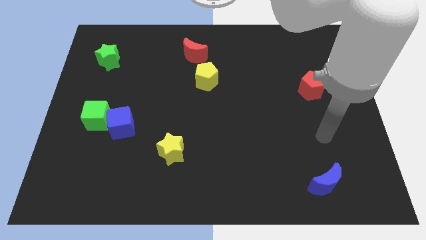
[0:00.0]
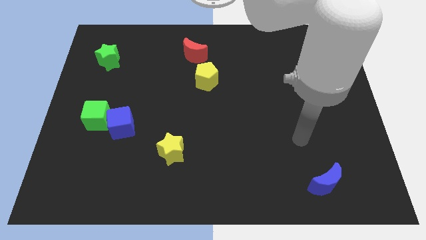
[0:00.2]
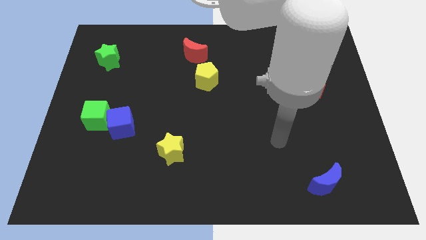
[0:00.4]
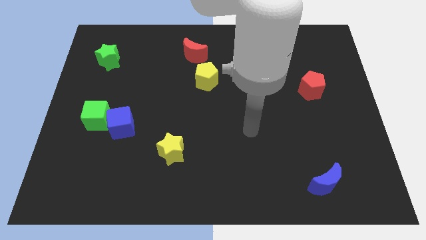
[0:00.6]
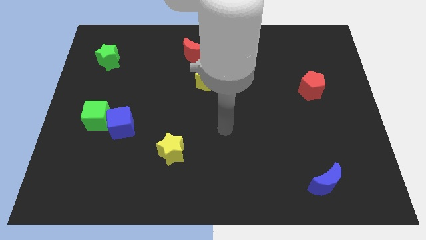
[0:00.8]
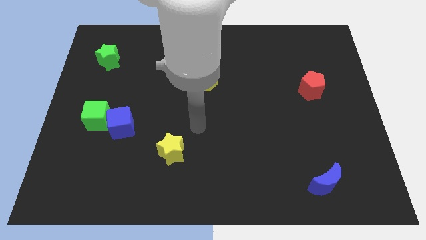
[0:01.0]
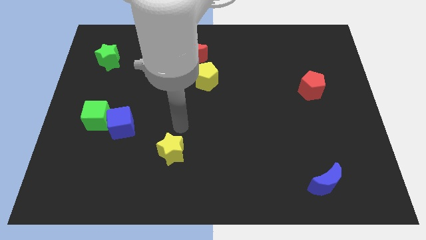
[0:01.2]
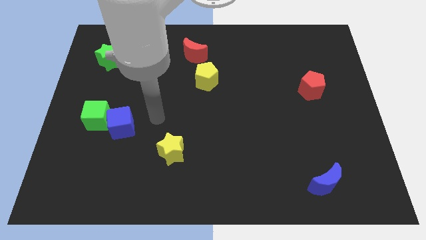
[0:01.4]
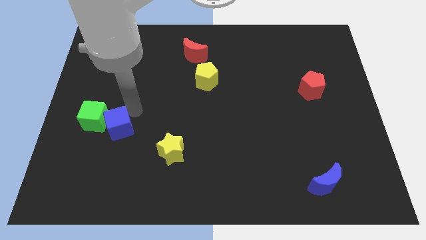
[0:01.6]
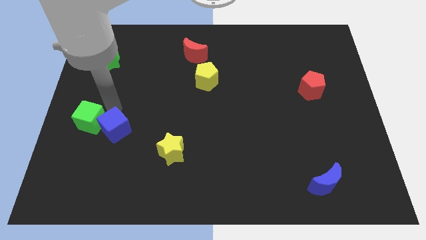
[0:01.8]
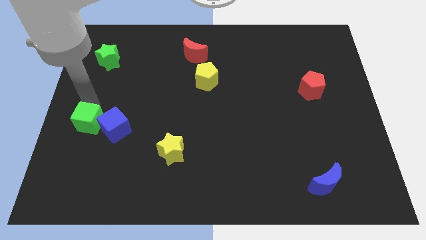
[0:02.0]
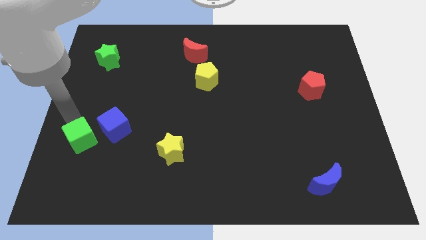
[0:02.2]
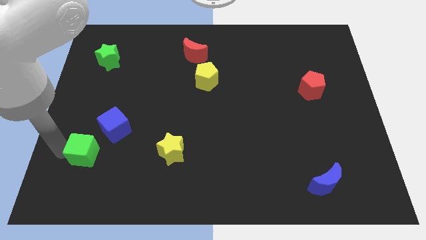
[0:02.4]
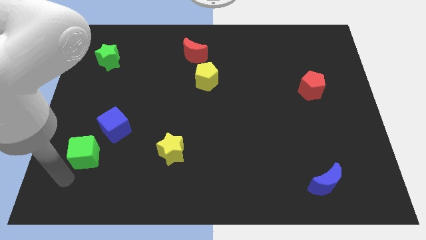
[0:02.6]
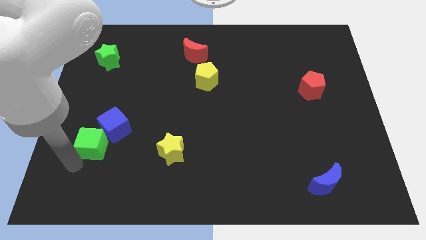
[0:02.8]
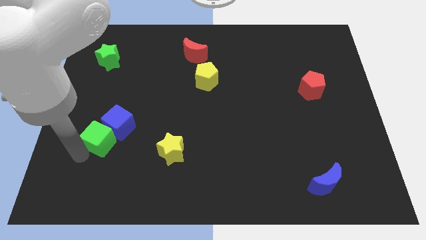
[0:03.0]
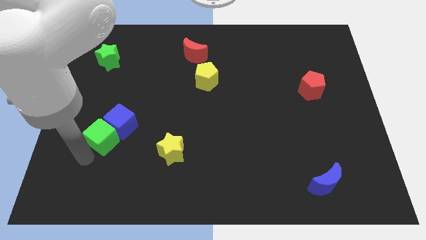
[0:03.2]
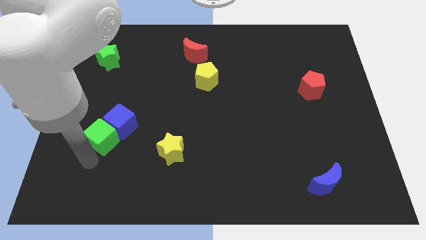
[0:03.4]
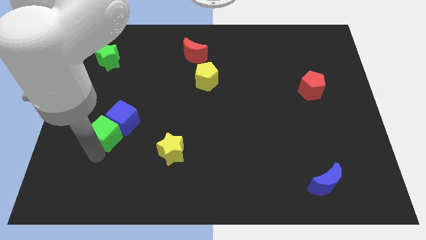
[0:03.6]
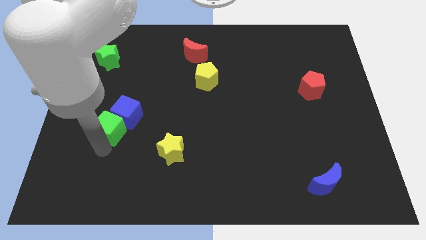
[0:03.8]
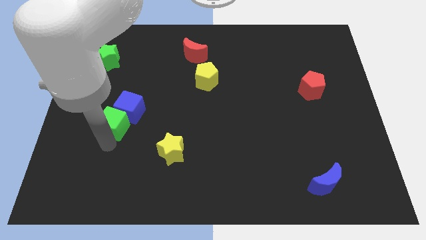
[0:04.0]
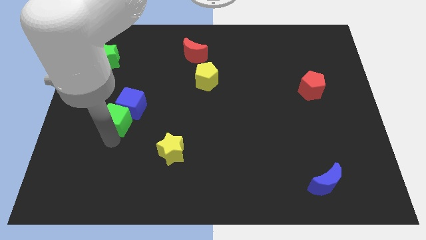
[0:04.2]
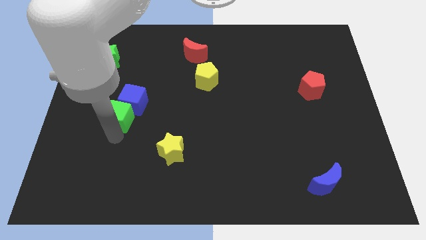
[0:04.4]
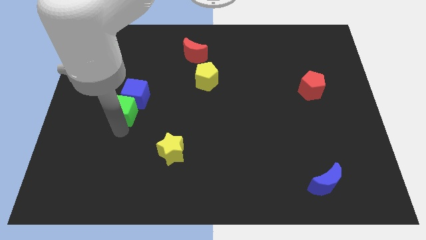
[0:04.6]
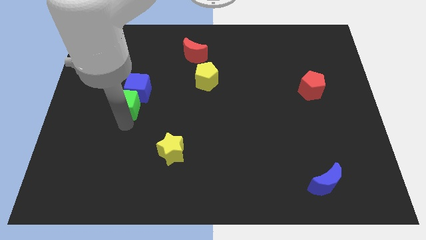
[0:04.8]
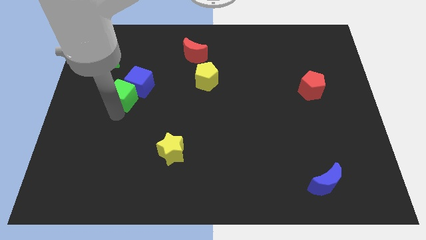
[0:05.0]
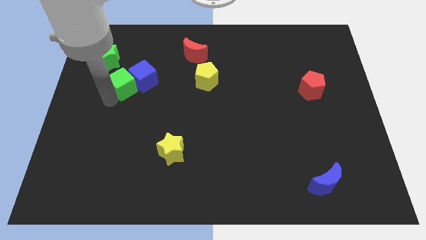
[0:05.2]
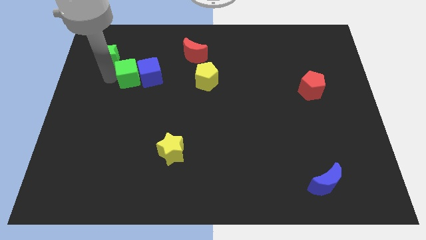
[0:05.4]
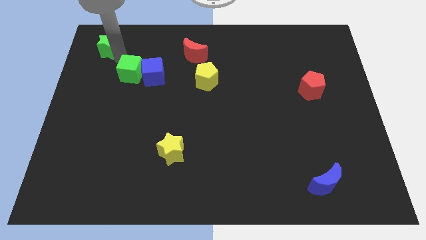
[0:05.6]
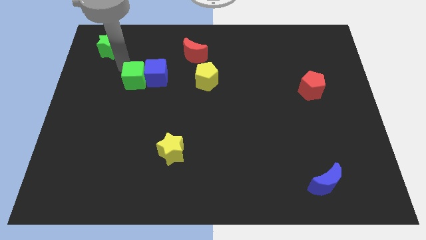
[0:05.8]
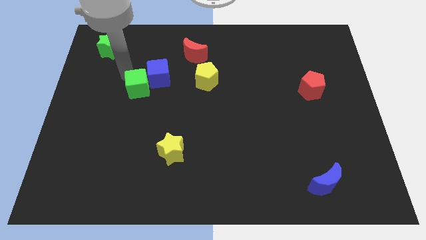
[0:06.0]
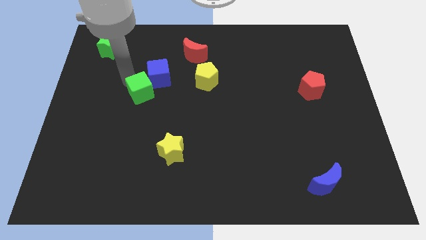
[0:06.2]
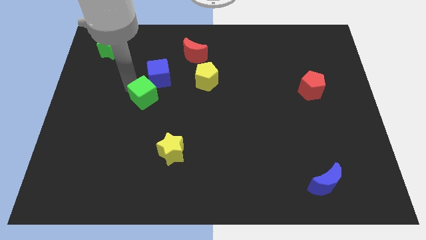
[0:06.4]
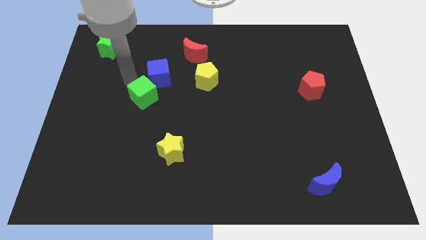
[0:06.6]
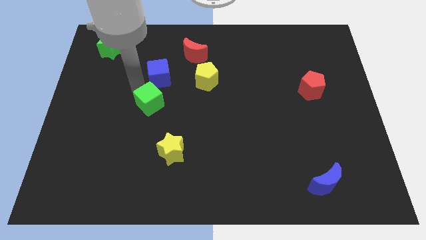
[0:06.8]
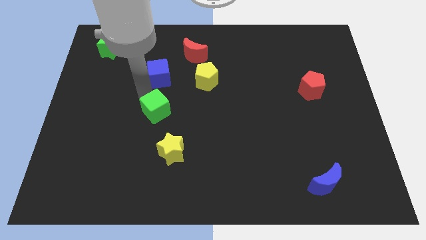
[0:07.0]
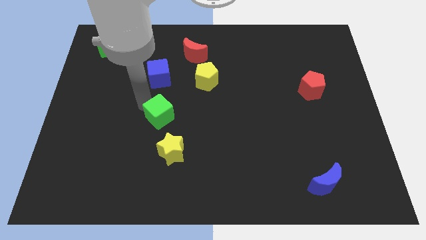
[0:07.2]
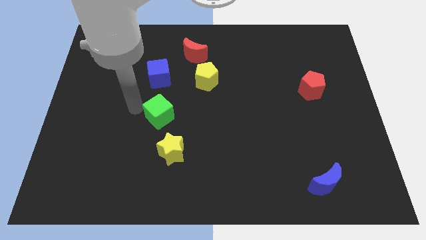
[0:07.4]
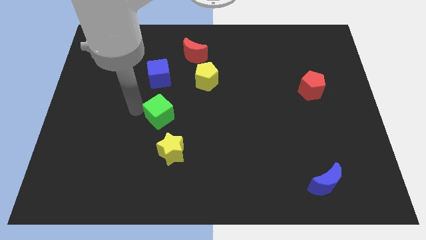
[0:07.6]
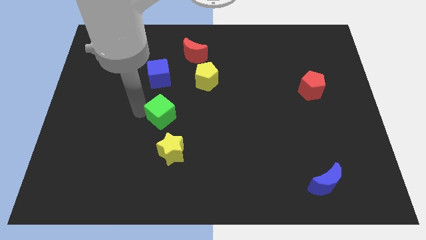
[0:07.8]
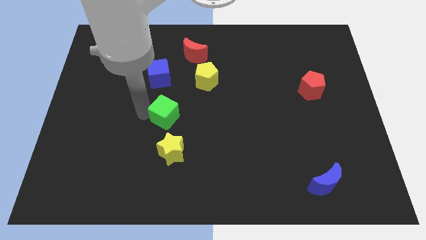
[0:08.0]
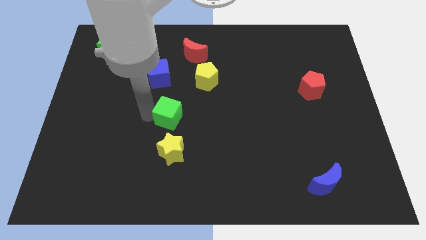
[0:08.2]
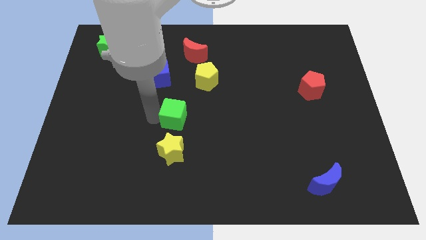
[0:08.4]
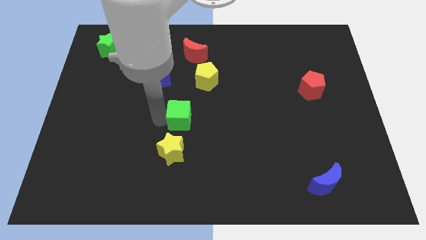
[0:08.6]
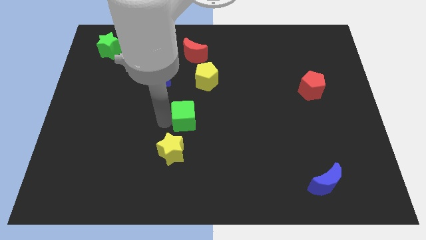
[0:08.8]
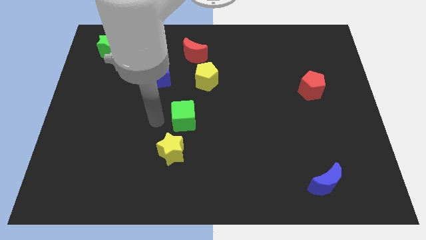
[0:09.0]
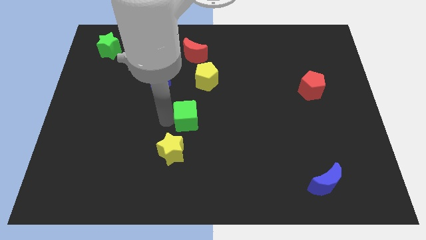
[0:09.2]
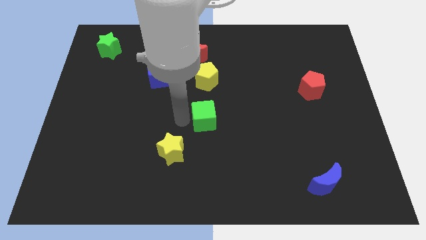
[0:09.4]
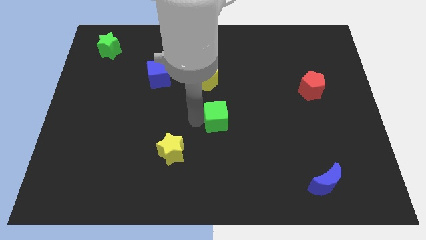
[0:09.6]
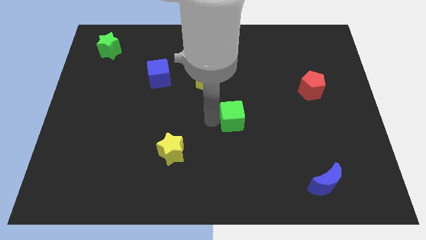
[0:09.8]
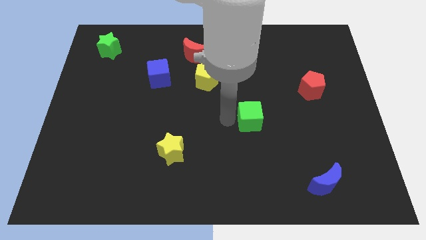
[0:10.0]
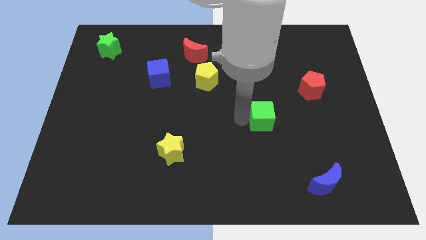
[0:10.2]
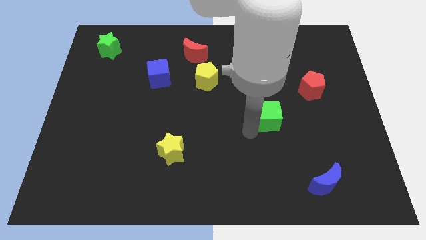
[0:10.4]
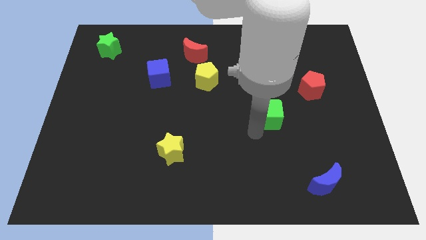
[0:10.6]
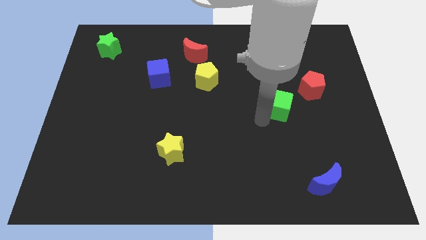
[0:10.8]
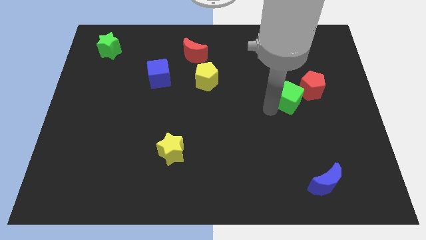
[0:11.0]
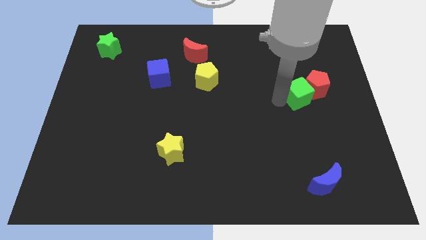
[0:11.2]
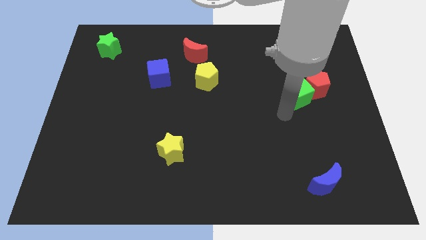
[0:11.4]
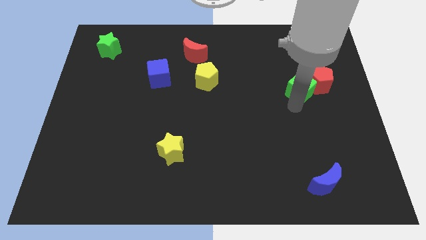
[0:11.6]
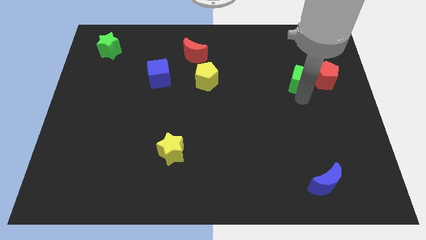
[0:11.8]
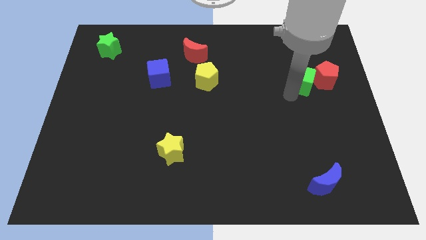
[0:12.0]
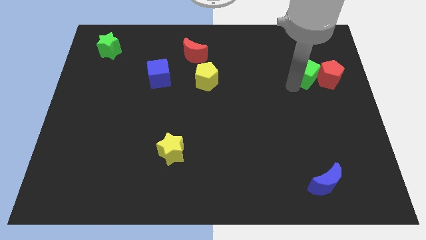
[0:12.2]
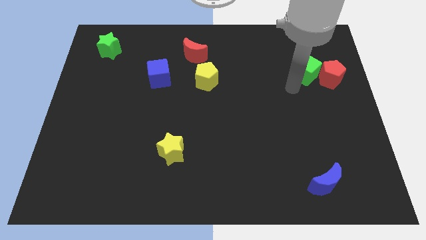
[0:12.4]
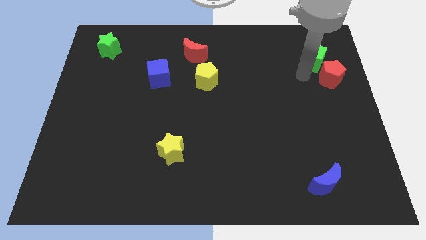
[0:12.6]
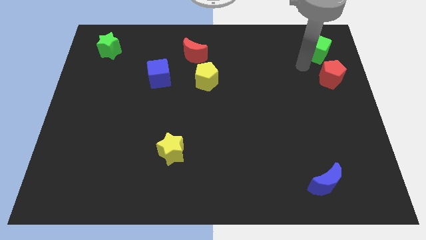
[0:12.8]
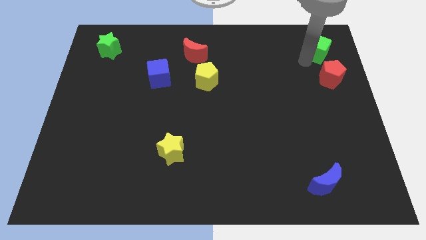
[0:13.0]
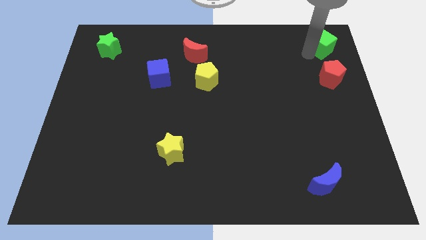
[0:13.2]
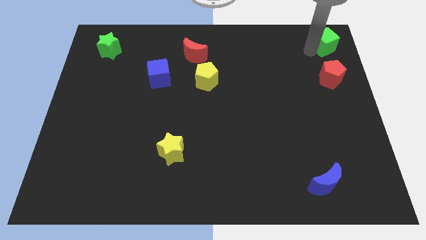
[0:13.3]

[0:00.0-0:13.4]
push the green cube to the top right corner
